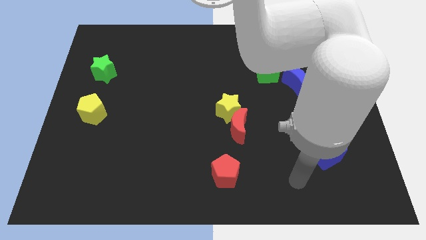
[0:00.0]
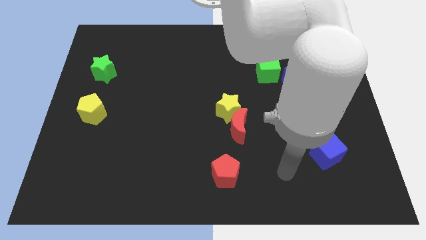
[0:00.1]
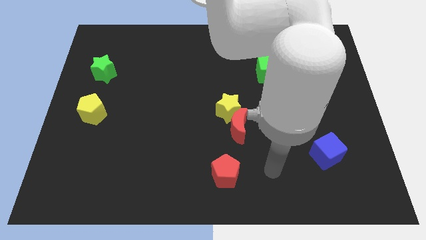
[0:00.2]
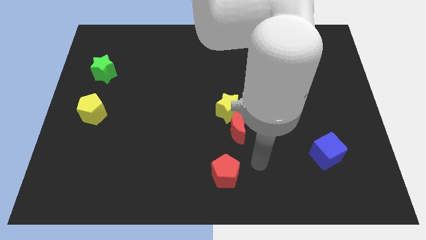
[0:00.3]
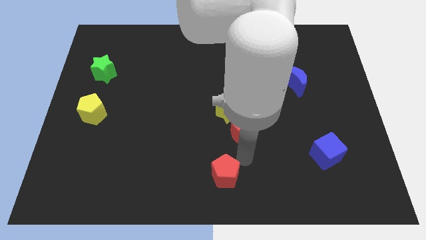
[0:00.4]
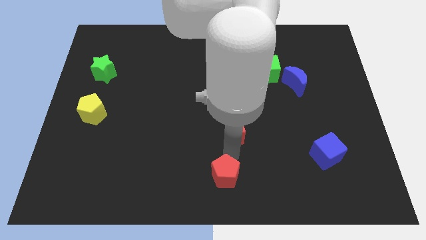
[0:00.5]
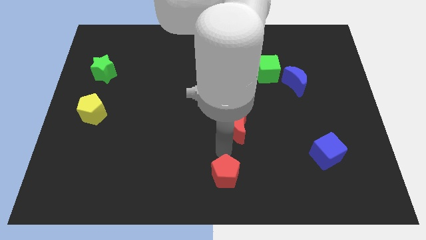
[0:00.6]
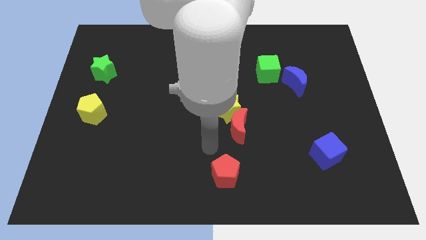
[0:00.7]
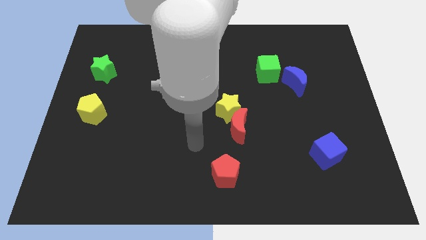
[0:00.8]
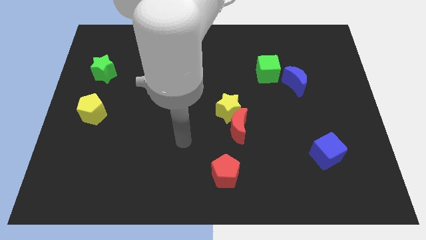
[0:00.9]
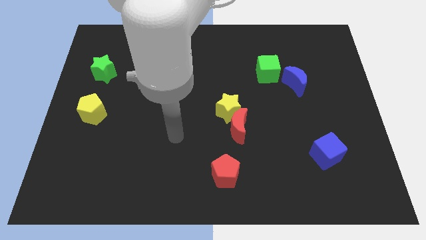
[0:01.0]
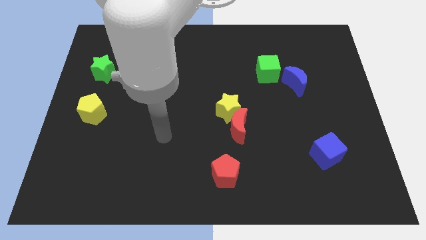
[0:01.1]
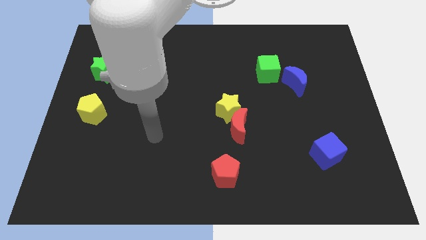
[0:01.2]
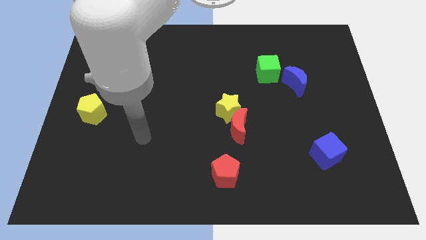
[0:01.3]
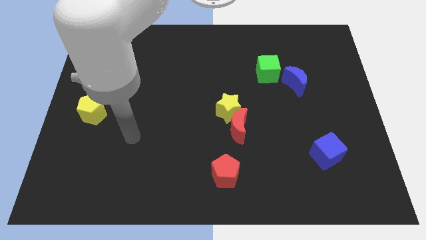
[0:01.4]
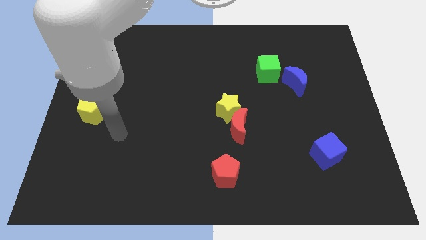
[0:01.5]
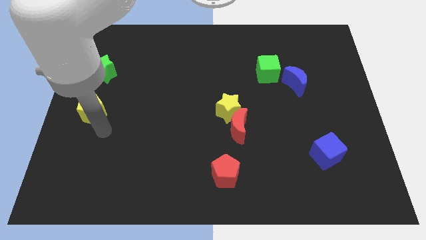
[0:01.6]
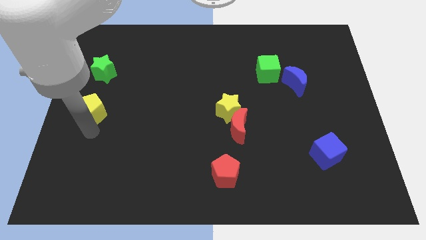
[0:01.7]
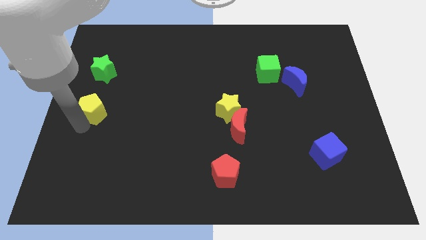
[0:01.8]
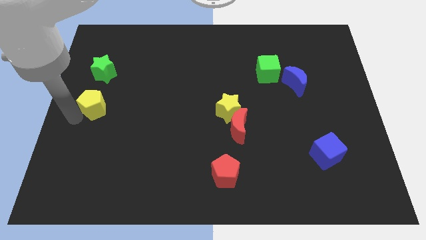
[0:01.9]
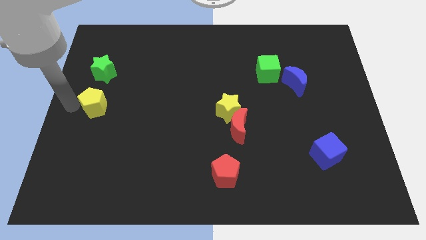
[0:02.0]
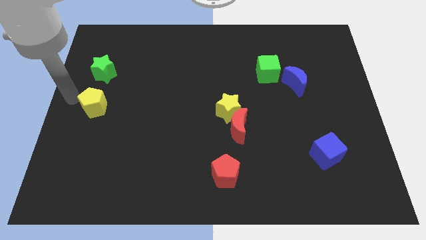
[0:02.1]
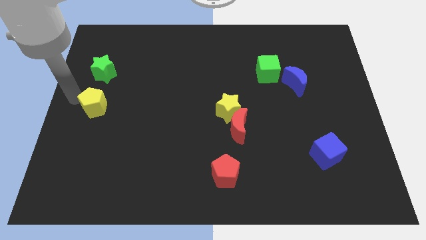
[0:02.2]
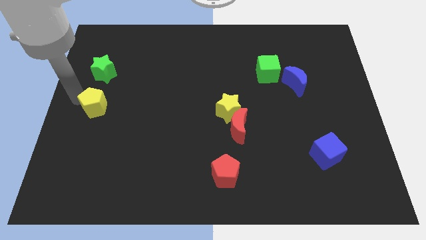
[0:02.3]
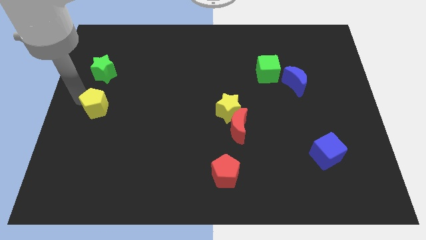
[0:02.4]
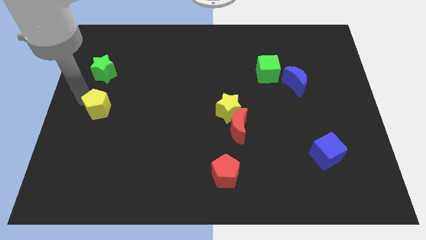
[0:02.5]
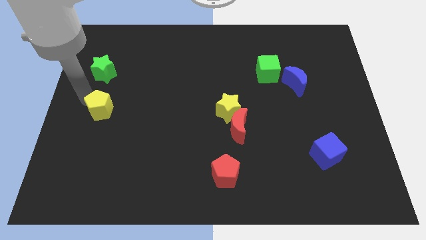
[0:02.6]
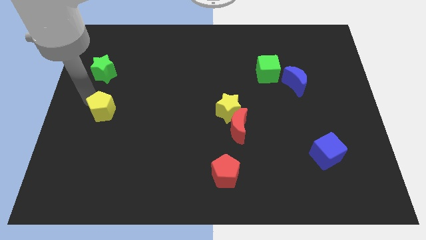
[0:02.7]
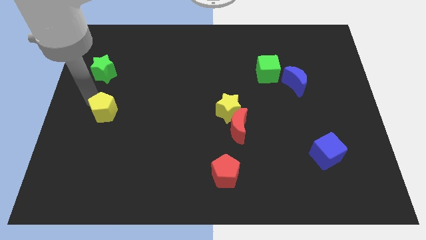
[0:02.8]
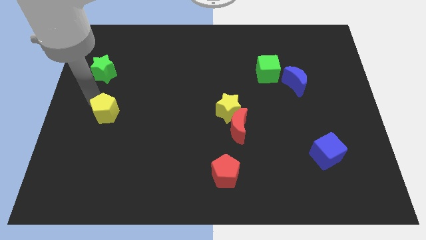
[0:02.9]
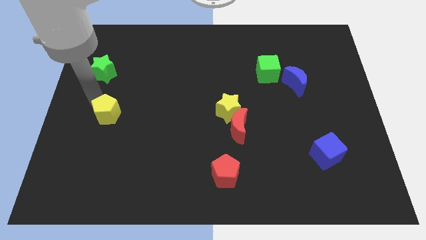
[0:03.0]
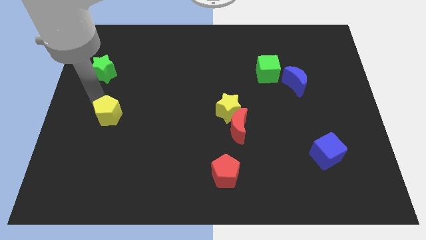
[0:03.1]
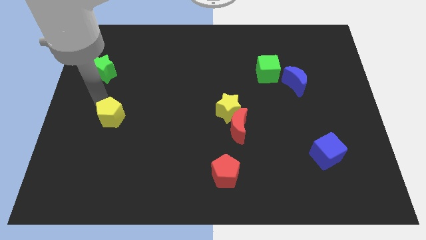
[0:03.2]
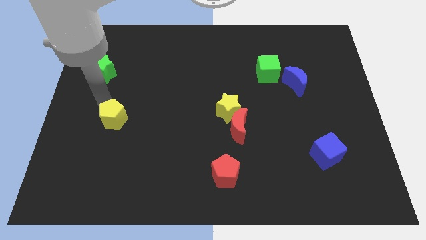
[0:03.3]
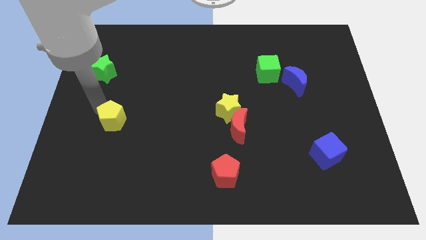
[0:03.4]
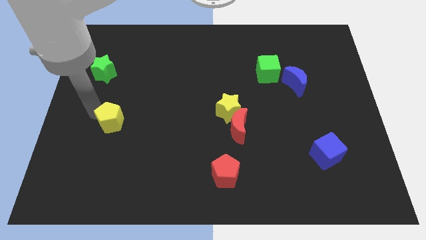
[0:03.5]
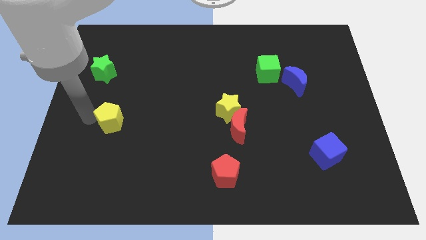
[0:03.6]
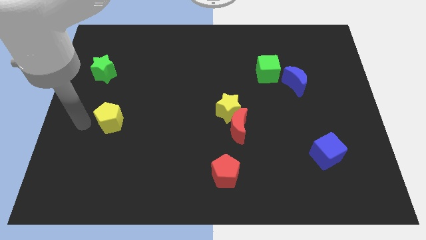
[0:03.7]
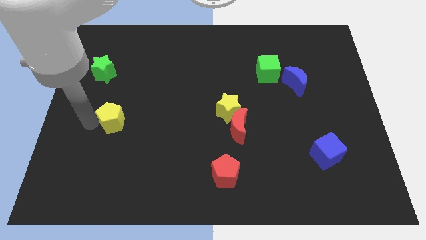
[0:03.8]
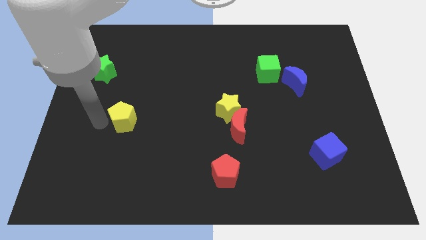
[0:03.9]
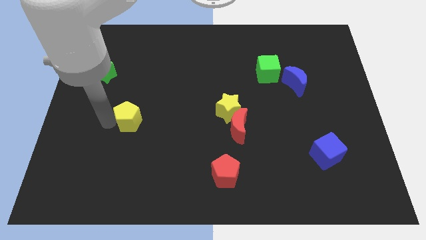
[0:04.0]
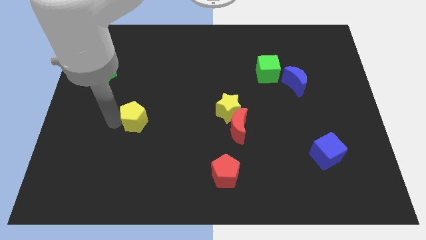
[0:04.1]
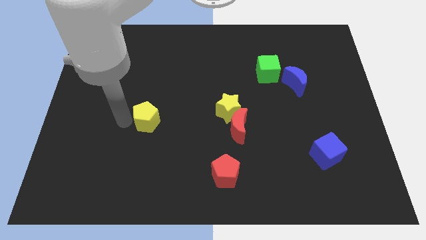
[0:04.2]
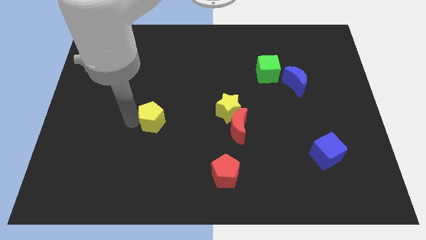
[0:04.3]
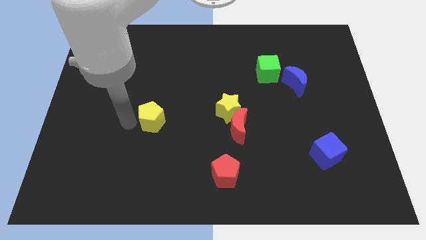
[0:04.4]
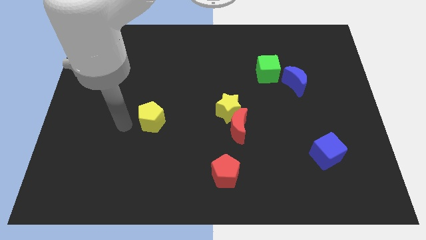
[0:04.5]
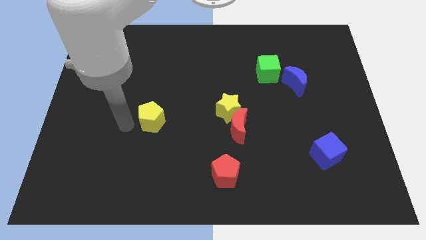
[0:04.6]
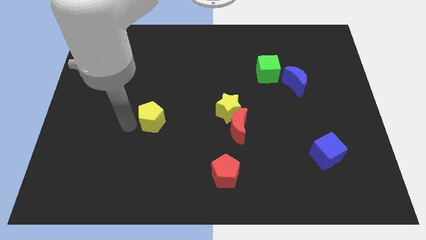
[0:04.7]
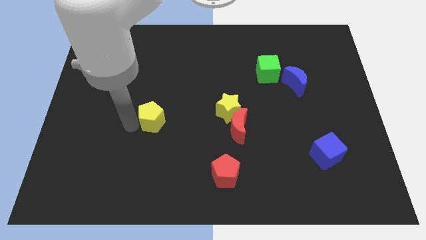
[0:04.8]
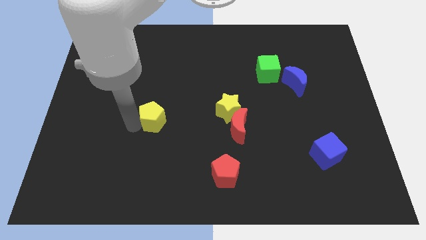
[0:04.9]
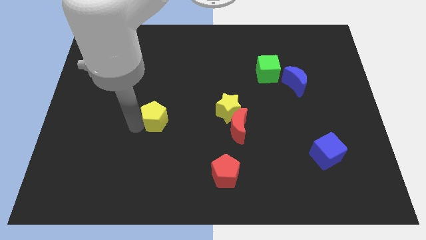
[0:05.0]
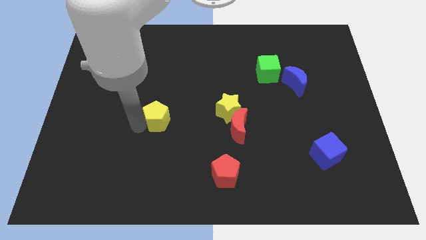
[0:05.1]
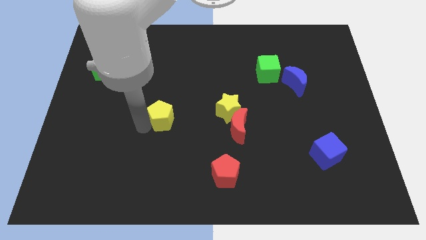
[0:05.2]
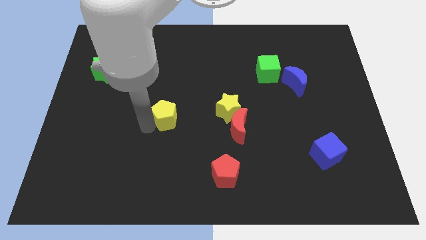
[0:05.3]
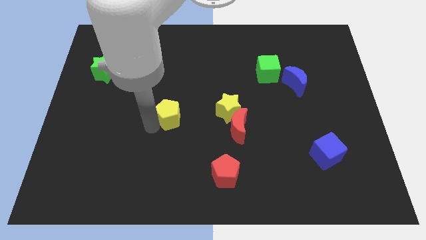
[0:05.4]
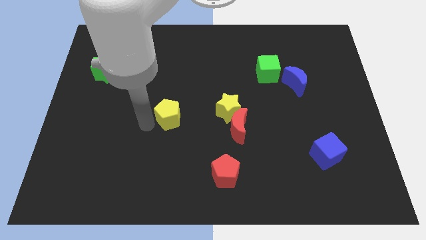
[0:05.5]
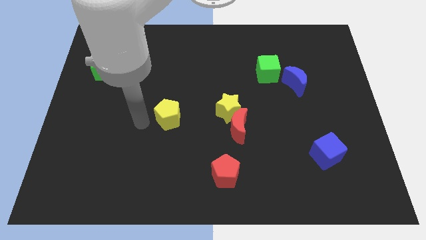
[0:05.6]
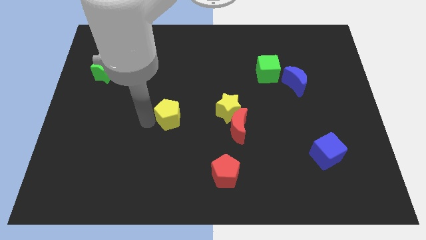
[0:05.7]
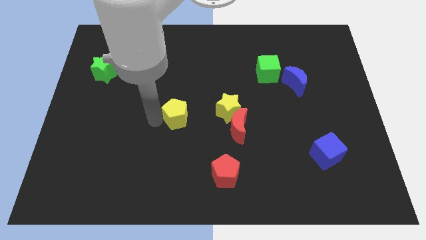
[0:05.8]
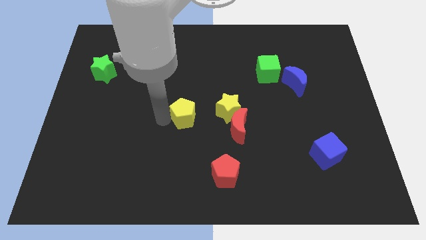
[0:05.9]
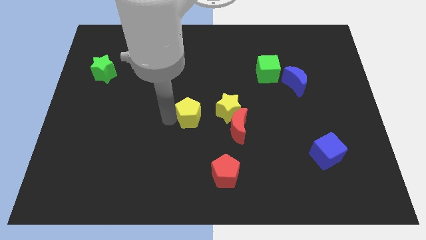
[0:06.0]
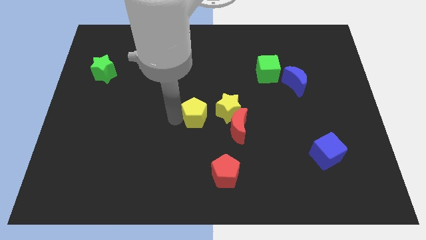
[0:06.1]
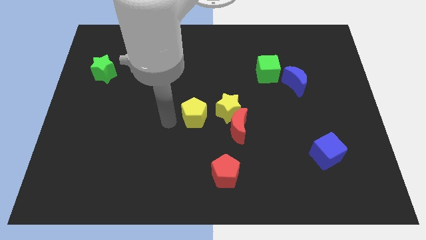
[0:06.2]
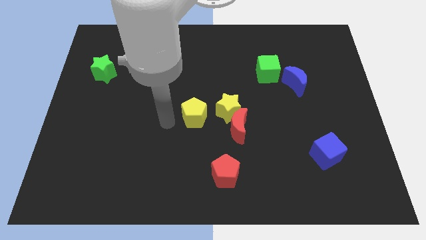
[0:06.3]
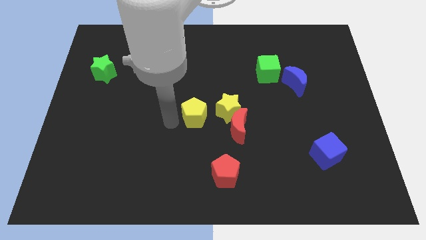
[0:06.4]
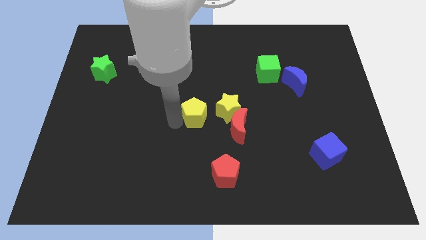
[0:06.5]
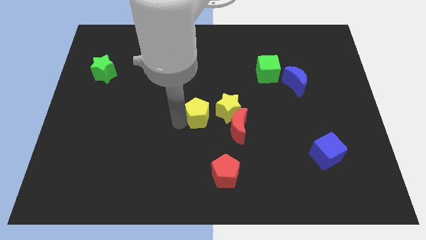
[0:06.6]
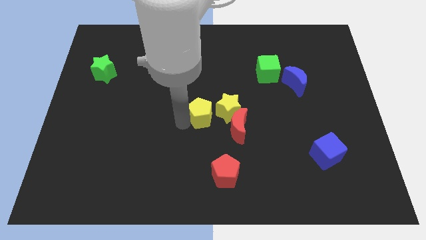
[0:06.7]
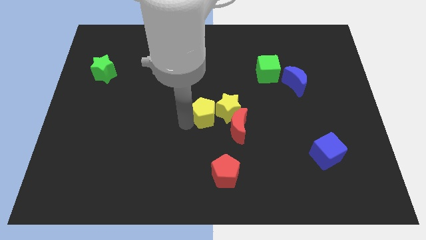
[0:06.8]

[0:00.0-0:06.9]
slide the yellow pentagon next to the yellow star
